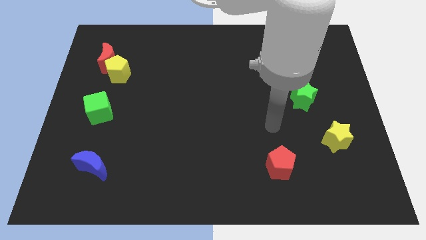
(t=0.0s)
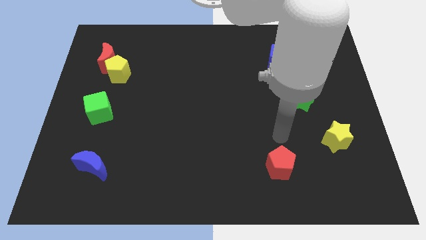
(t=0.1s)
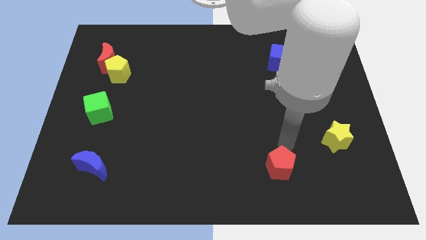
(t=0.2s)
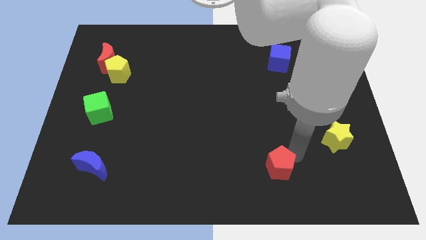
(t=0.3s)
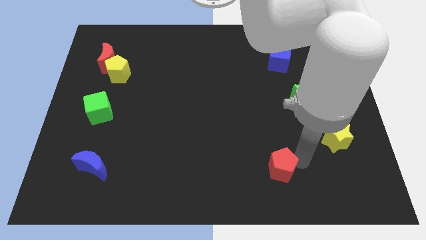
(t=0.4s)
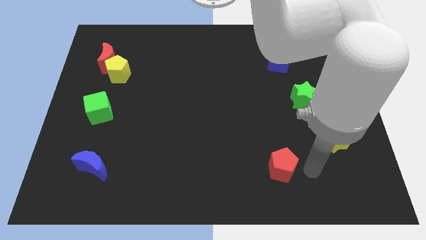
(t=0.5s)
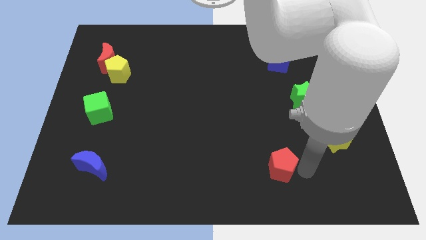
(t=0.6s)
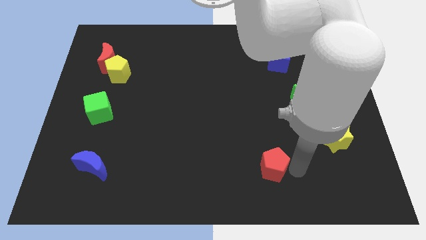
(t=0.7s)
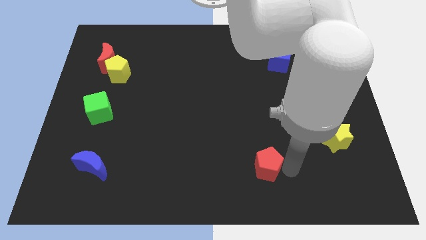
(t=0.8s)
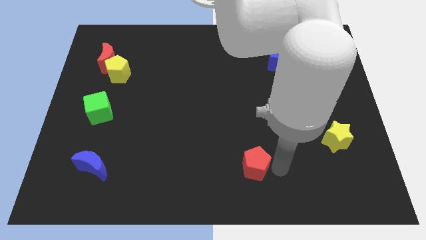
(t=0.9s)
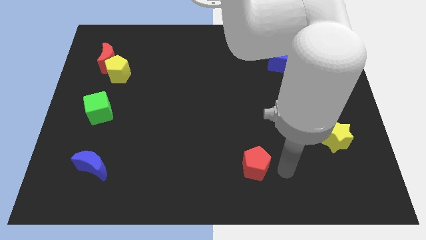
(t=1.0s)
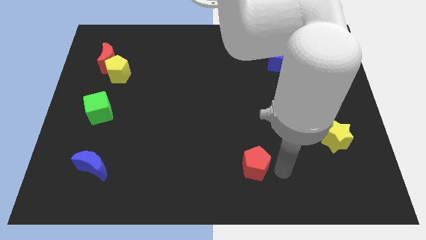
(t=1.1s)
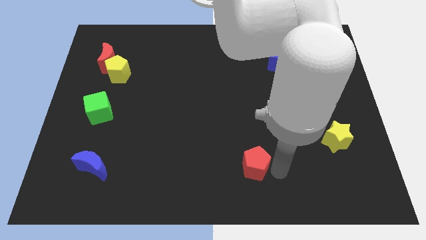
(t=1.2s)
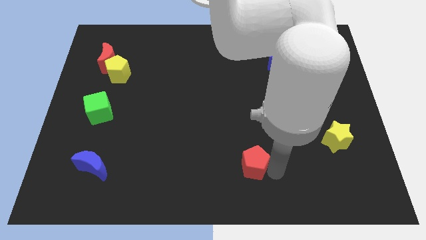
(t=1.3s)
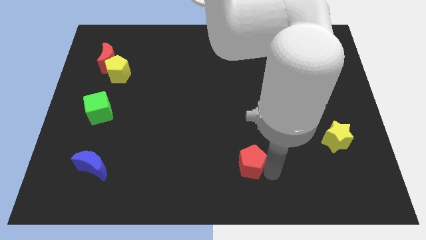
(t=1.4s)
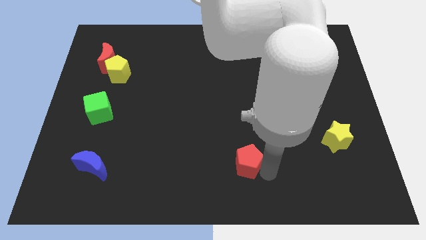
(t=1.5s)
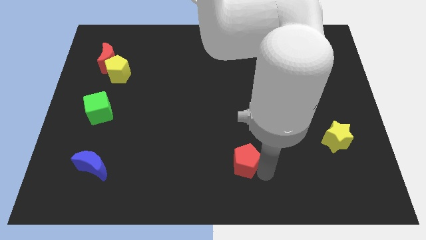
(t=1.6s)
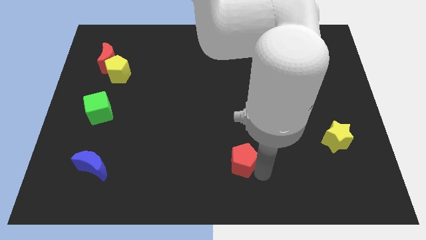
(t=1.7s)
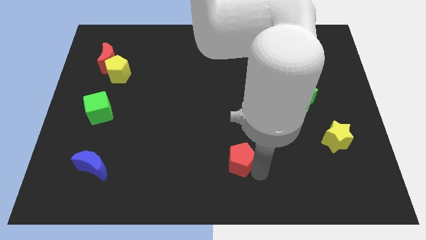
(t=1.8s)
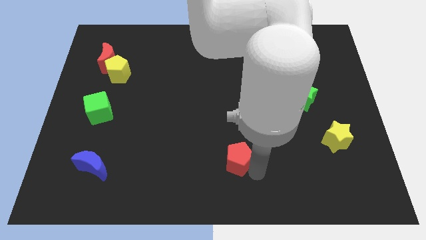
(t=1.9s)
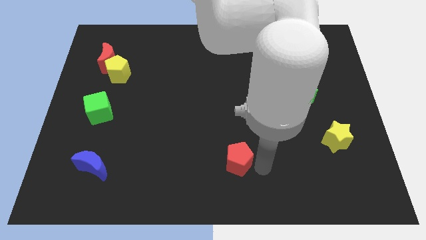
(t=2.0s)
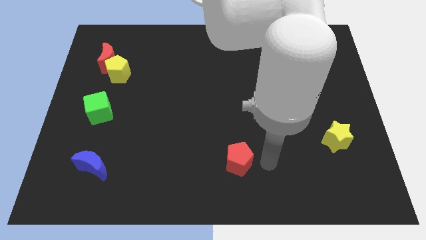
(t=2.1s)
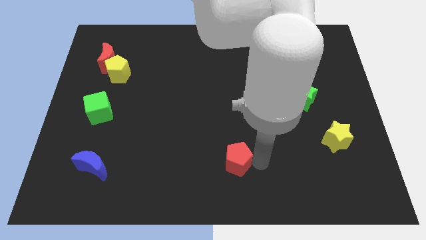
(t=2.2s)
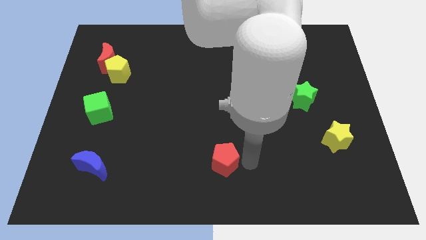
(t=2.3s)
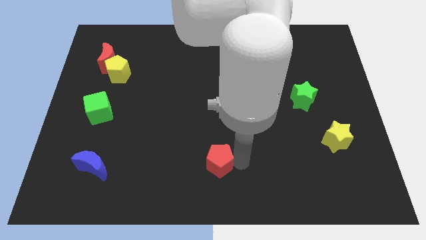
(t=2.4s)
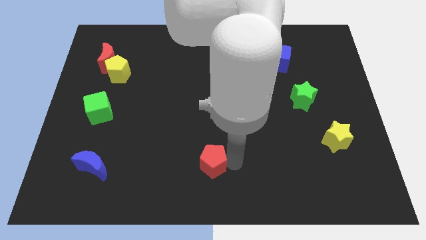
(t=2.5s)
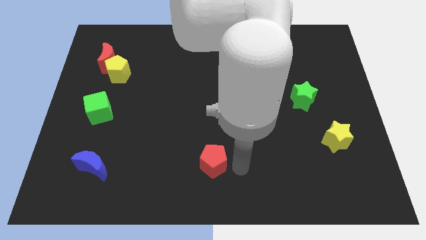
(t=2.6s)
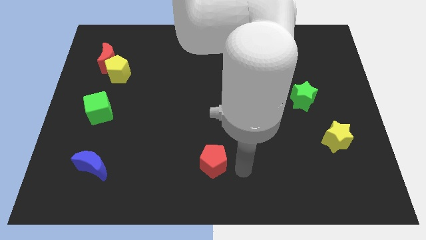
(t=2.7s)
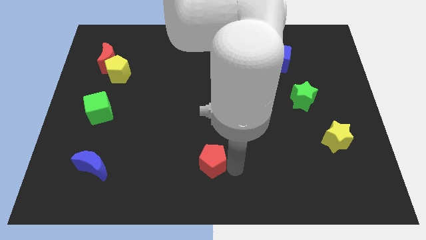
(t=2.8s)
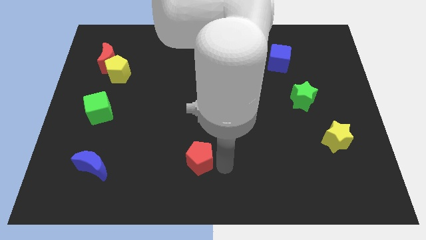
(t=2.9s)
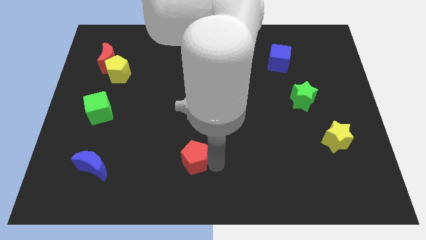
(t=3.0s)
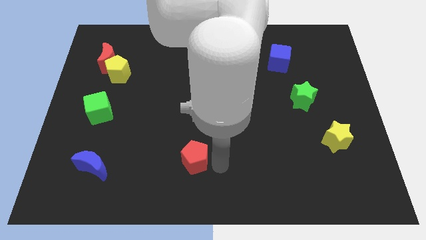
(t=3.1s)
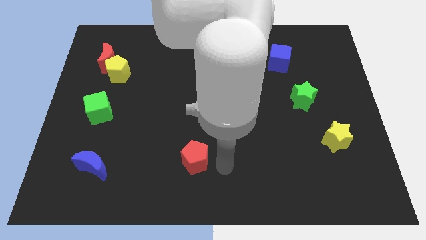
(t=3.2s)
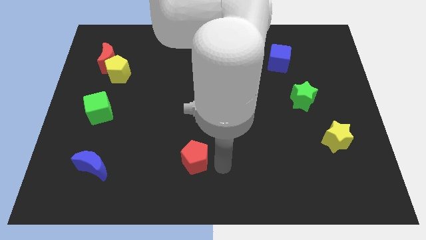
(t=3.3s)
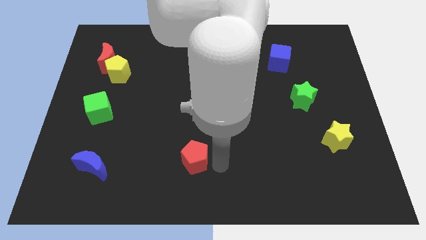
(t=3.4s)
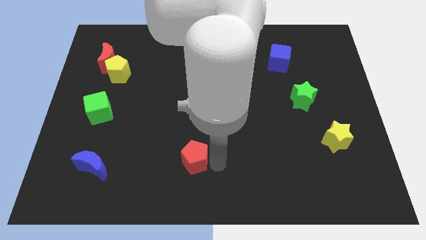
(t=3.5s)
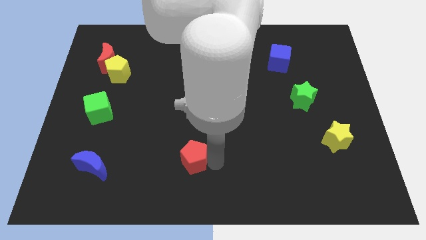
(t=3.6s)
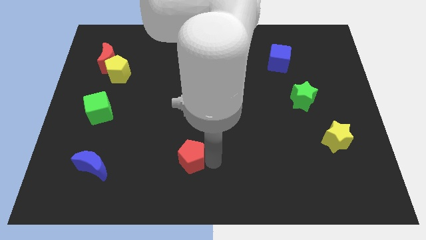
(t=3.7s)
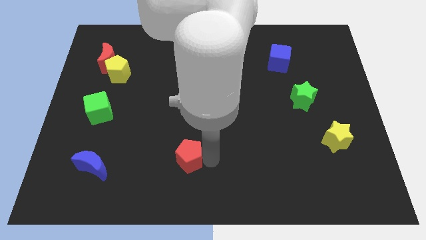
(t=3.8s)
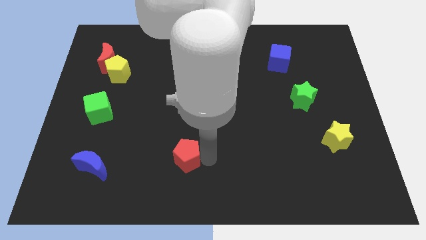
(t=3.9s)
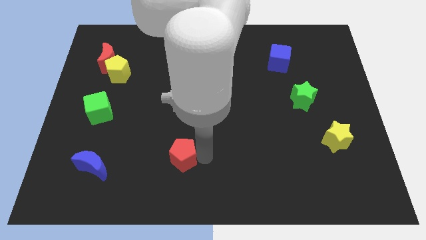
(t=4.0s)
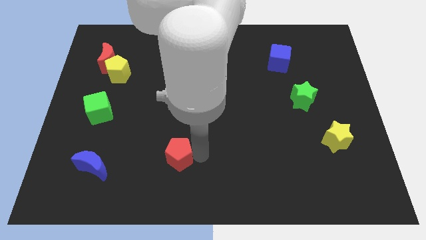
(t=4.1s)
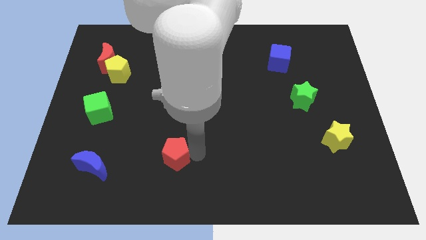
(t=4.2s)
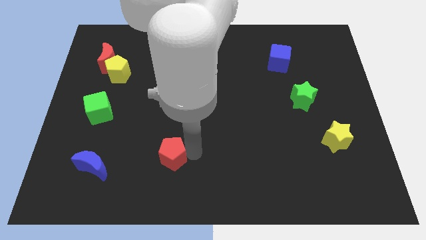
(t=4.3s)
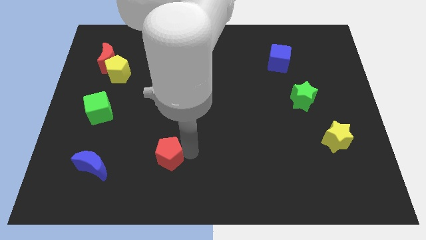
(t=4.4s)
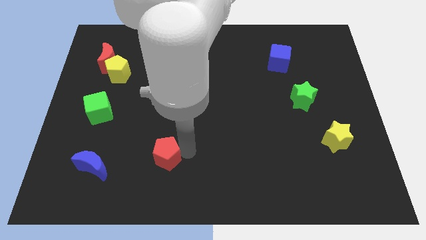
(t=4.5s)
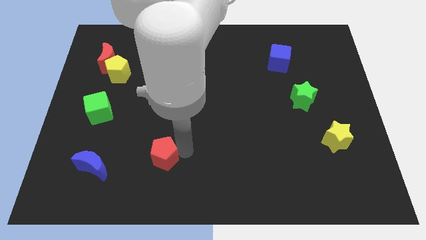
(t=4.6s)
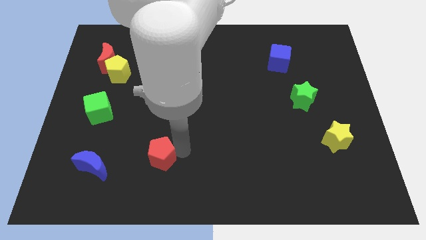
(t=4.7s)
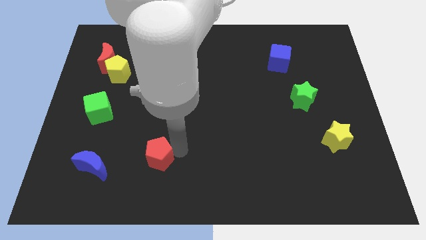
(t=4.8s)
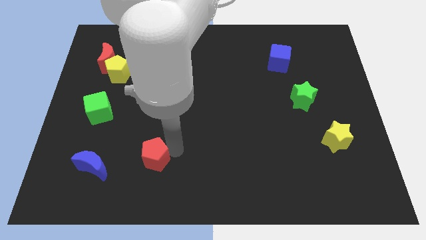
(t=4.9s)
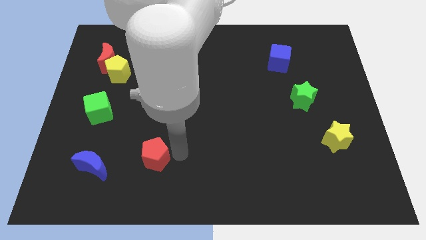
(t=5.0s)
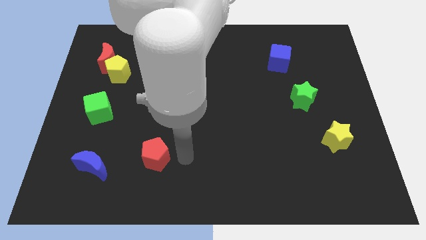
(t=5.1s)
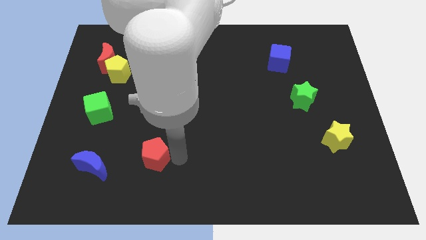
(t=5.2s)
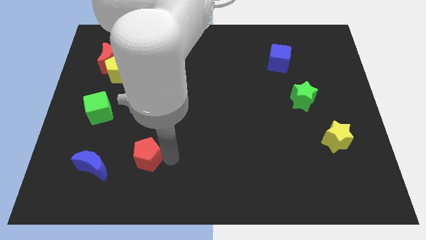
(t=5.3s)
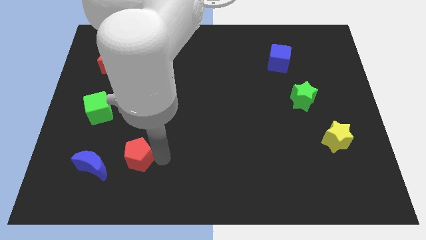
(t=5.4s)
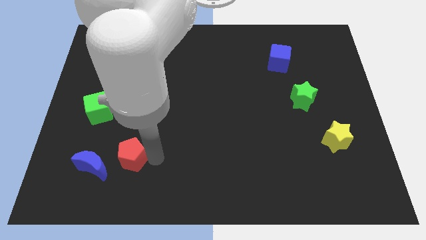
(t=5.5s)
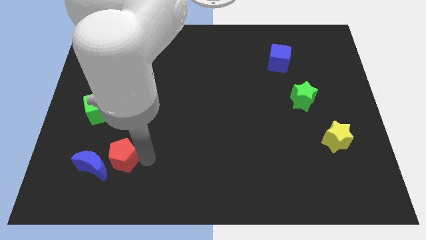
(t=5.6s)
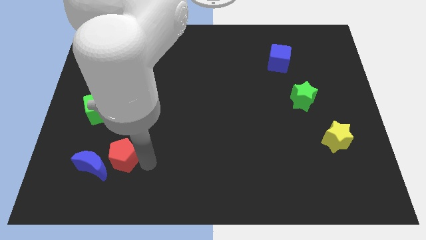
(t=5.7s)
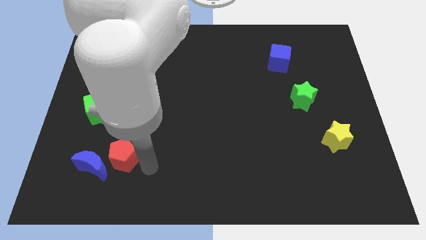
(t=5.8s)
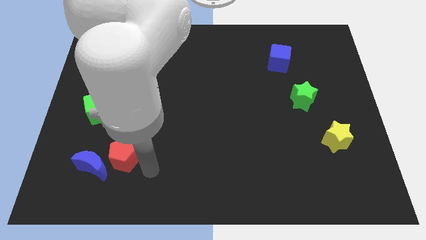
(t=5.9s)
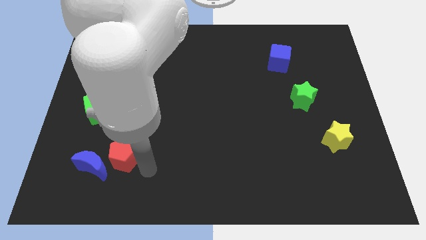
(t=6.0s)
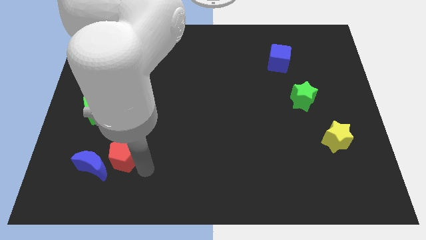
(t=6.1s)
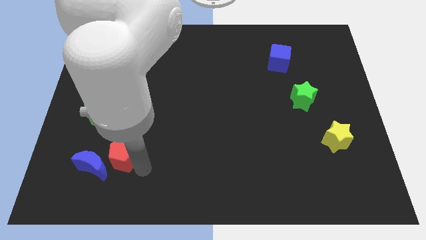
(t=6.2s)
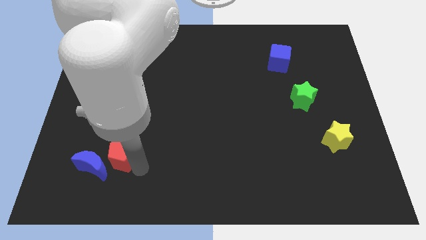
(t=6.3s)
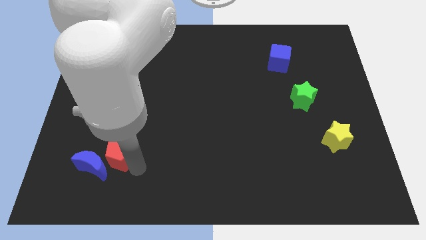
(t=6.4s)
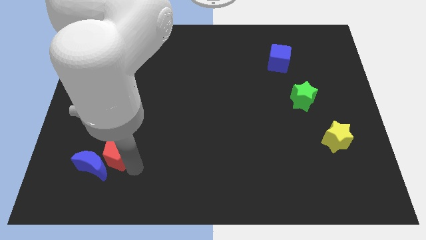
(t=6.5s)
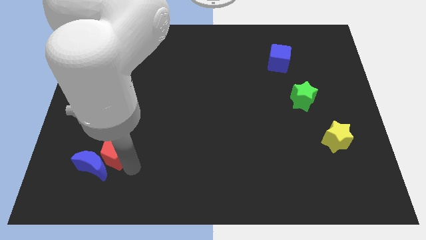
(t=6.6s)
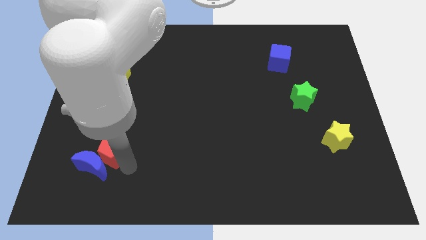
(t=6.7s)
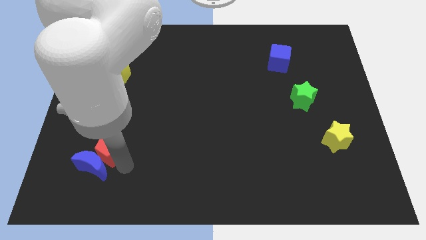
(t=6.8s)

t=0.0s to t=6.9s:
push the red pentagon to the bottom of the green cube

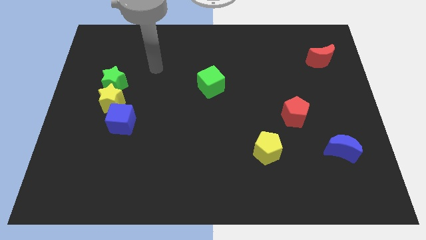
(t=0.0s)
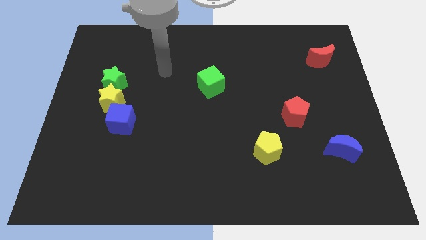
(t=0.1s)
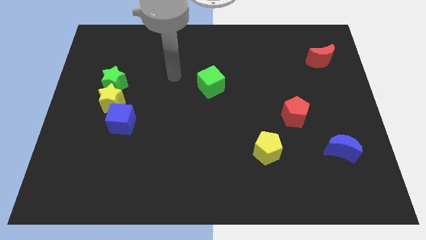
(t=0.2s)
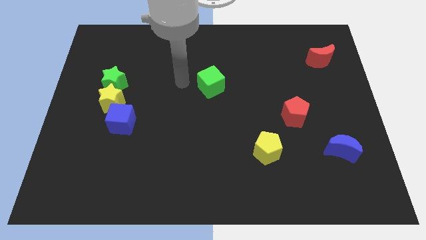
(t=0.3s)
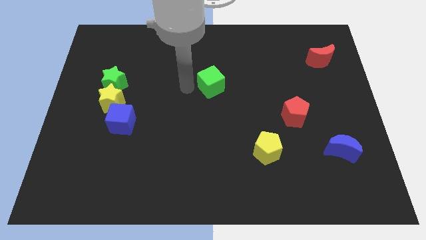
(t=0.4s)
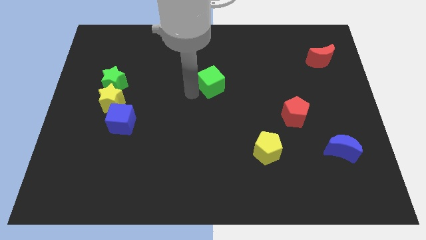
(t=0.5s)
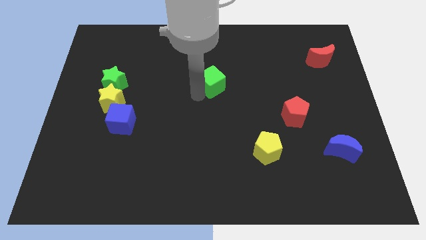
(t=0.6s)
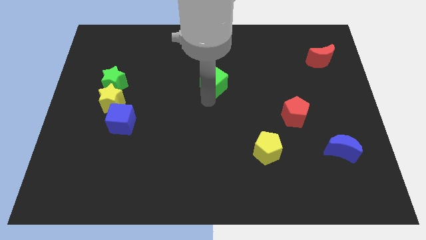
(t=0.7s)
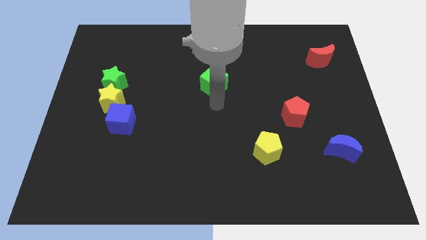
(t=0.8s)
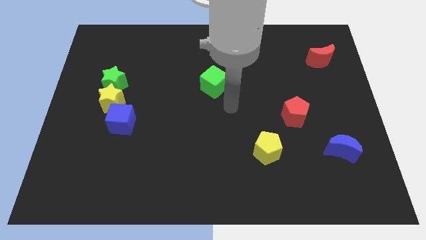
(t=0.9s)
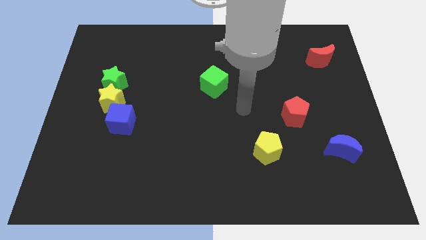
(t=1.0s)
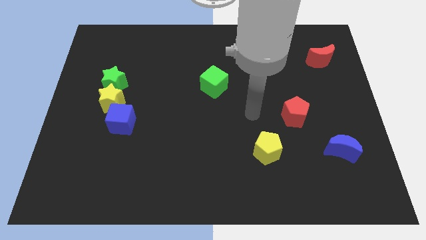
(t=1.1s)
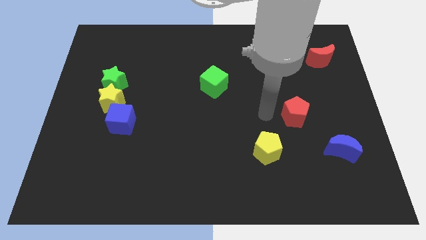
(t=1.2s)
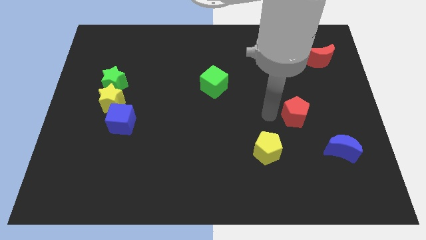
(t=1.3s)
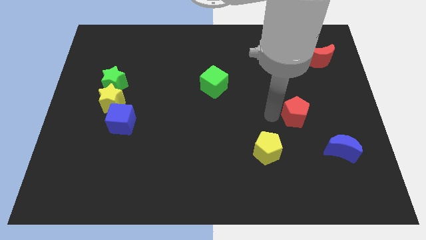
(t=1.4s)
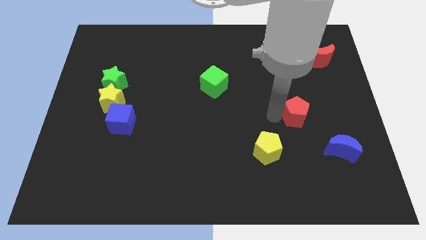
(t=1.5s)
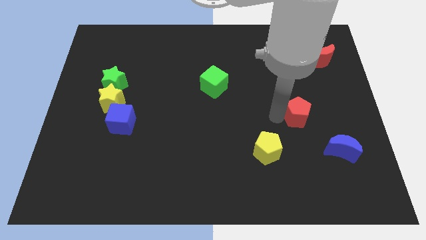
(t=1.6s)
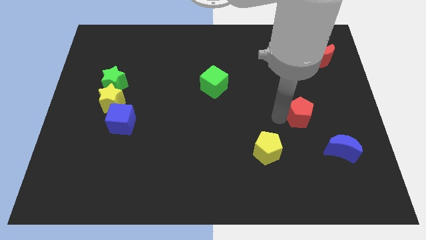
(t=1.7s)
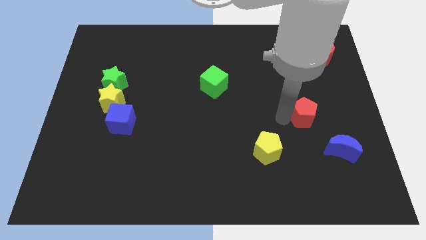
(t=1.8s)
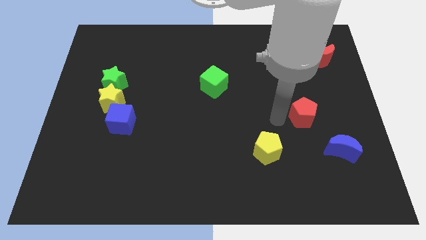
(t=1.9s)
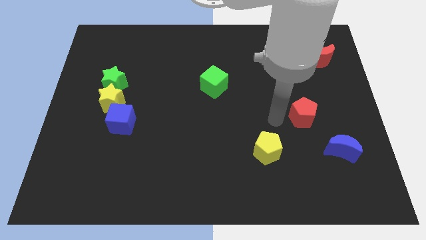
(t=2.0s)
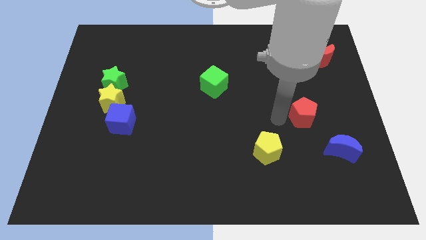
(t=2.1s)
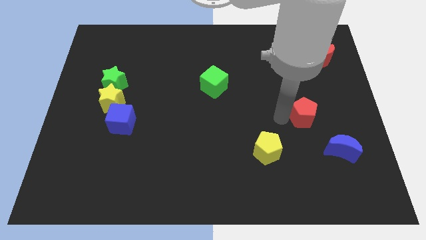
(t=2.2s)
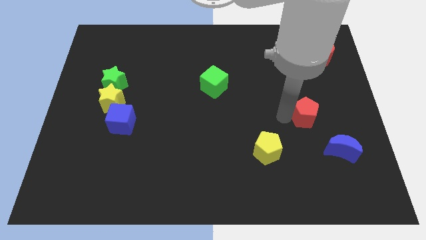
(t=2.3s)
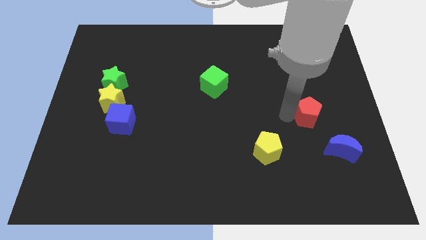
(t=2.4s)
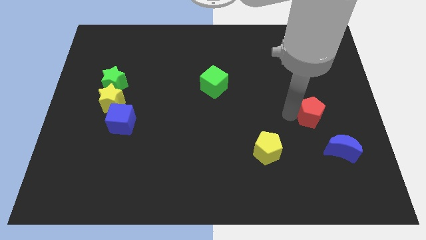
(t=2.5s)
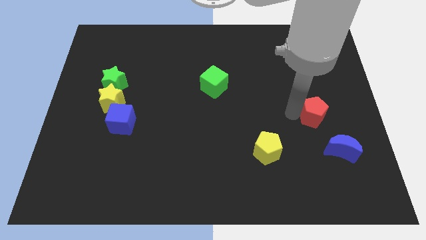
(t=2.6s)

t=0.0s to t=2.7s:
slide the red pentagon to the top side of the blue moon
